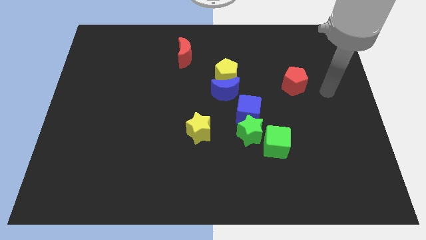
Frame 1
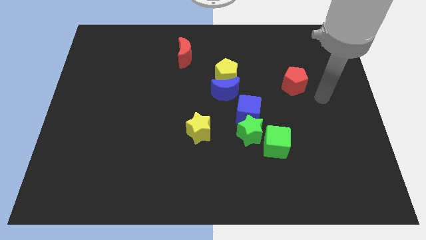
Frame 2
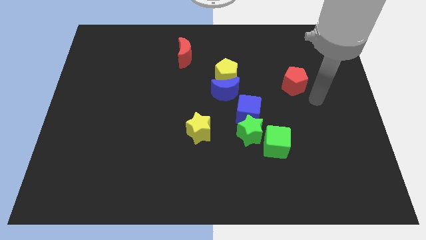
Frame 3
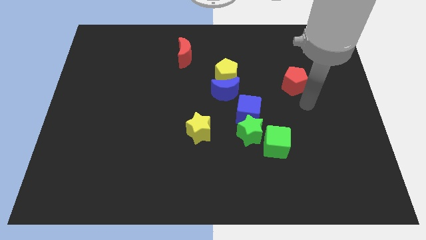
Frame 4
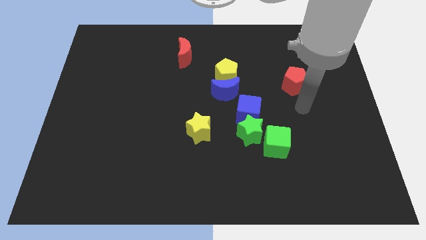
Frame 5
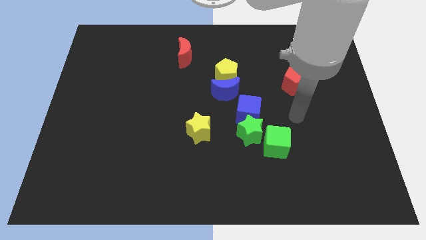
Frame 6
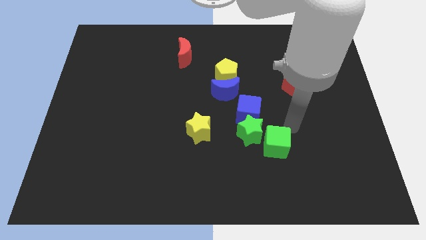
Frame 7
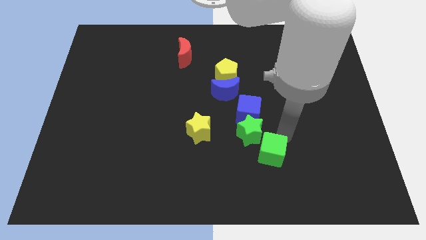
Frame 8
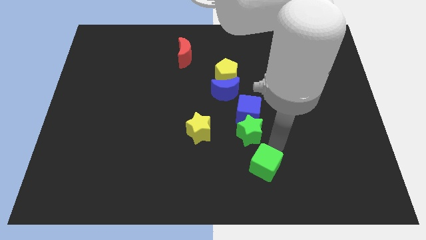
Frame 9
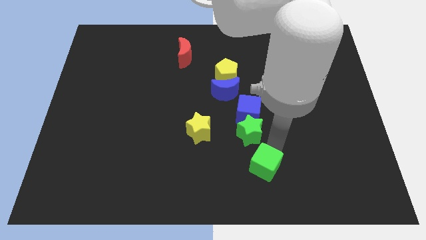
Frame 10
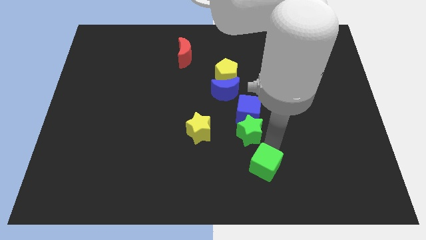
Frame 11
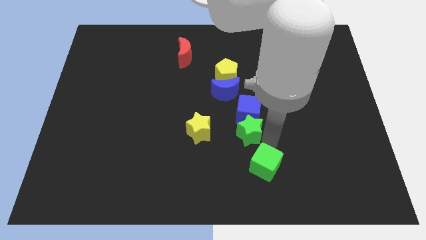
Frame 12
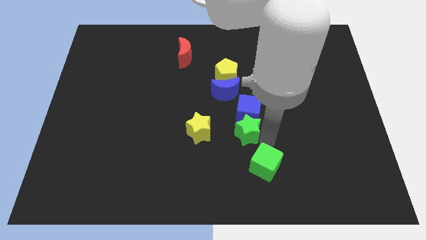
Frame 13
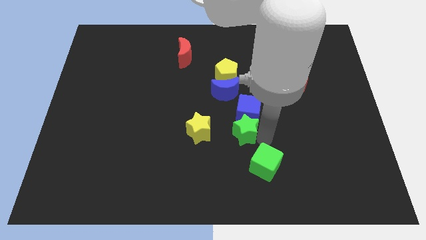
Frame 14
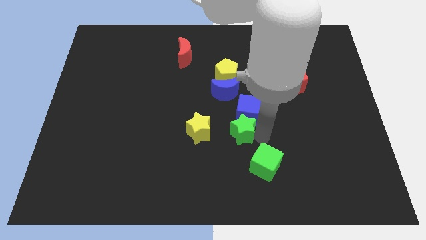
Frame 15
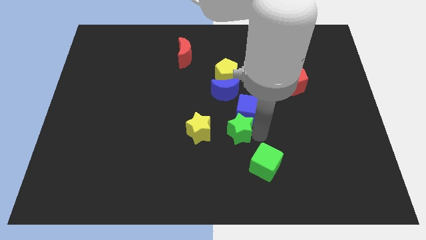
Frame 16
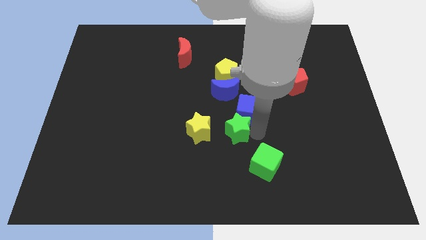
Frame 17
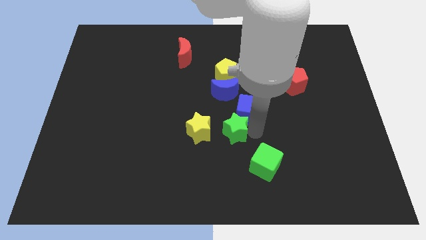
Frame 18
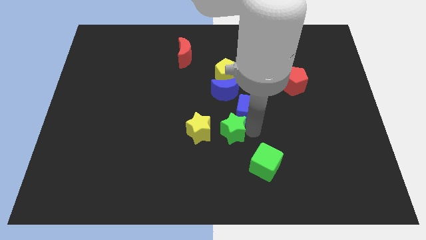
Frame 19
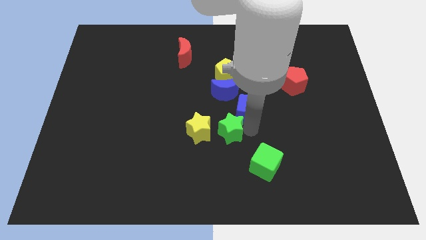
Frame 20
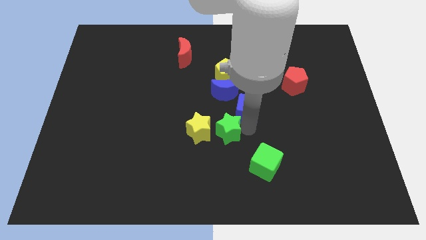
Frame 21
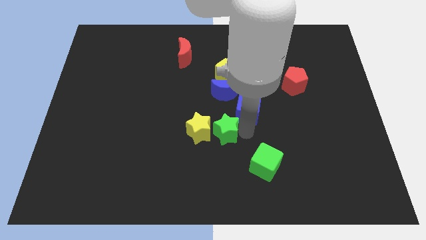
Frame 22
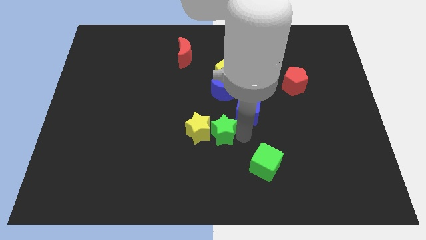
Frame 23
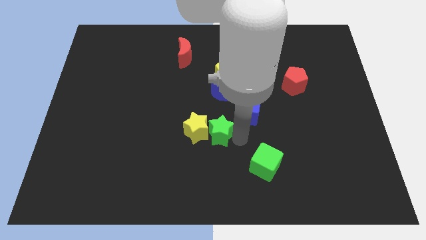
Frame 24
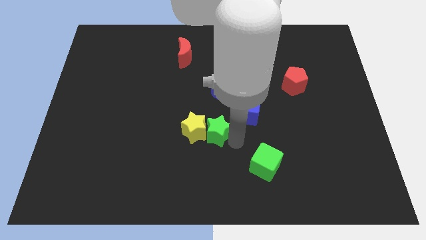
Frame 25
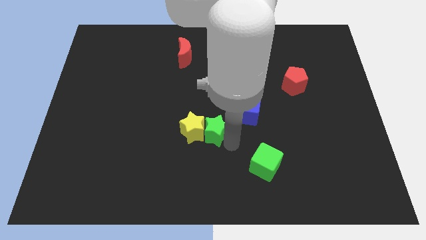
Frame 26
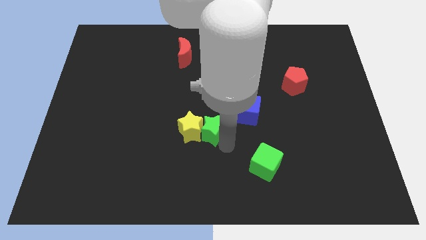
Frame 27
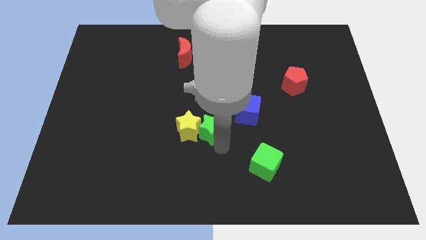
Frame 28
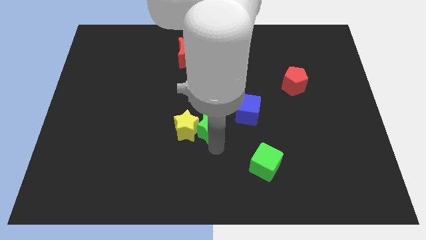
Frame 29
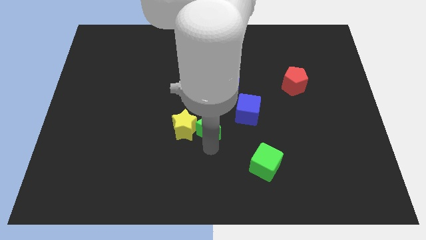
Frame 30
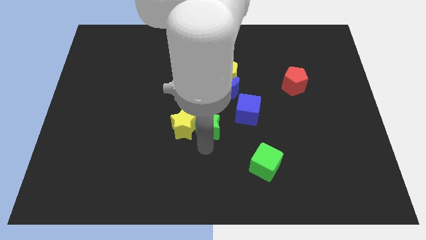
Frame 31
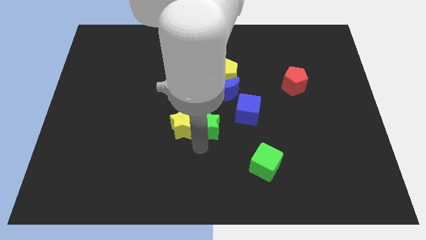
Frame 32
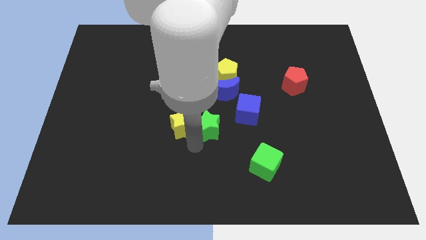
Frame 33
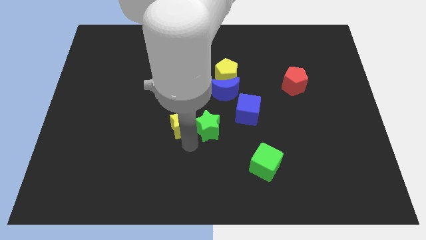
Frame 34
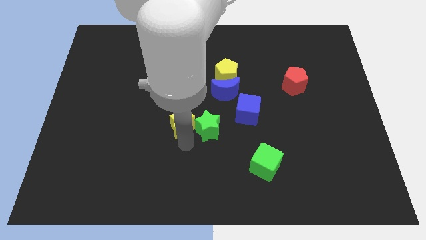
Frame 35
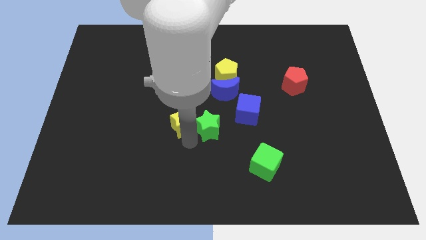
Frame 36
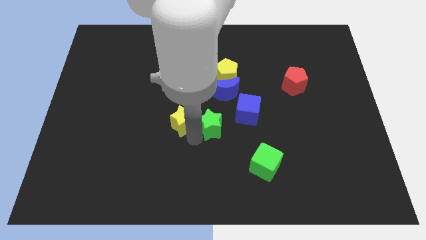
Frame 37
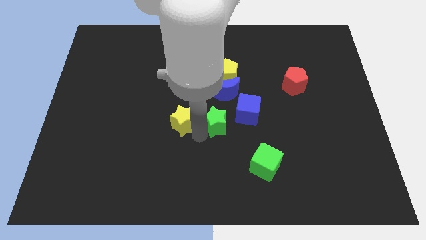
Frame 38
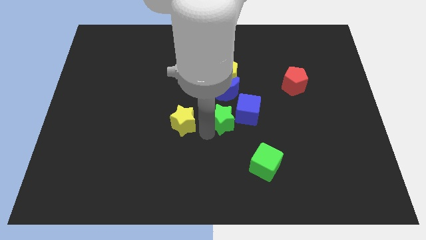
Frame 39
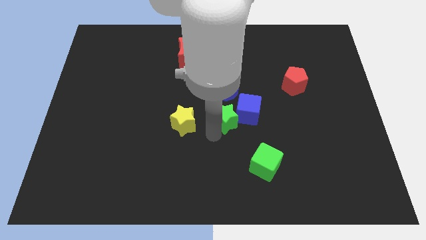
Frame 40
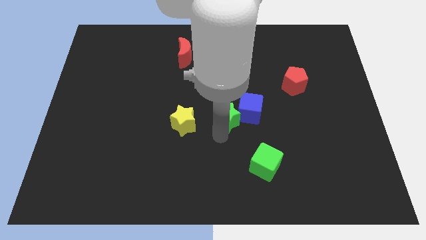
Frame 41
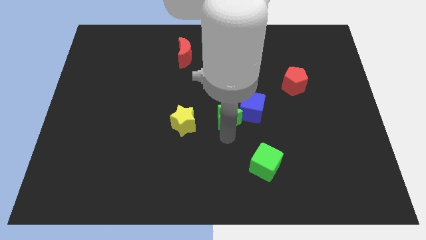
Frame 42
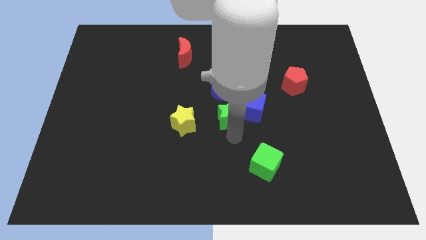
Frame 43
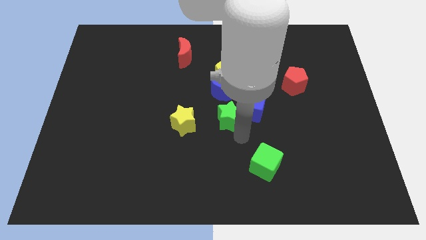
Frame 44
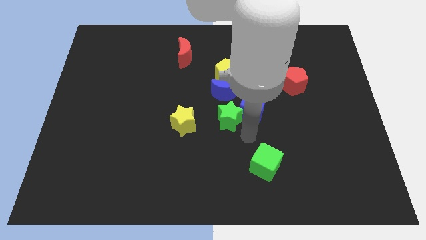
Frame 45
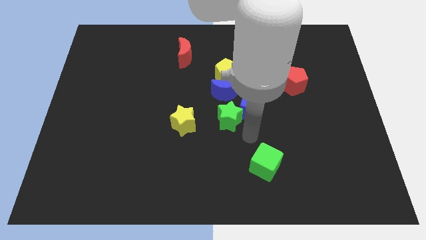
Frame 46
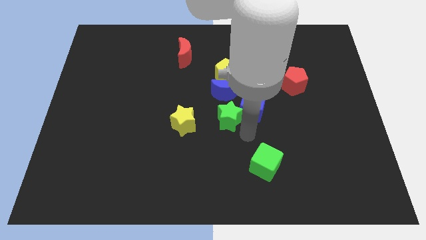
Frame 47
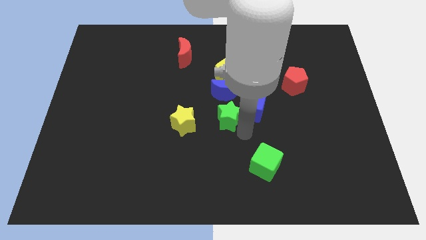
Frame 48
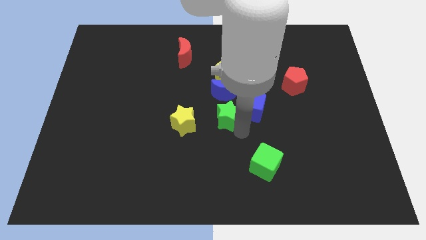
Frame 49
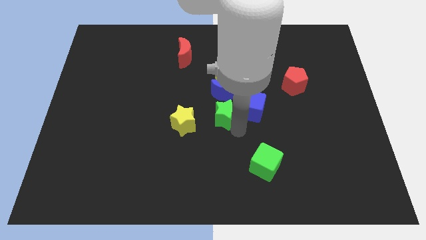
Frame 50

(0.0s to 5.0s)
slightly push the green star upwards and then to the left

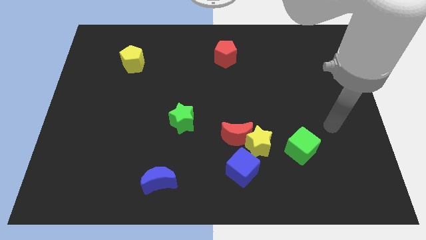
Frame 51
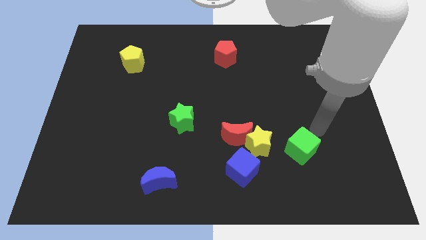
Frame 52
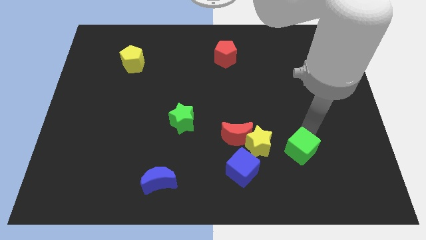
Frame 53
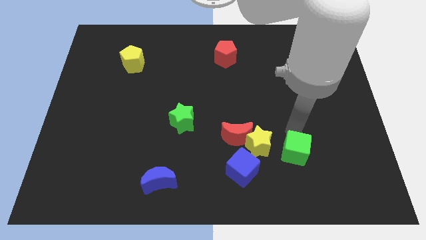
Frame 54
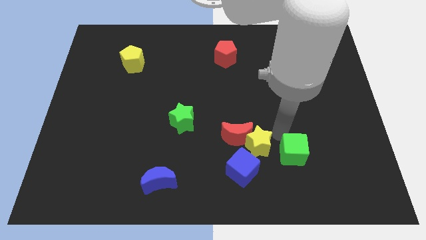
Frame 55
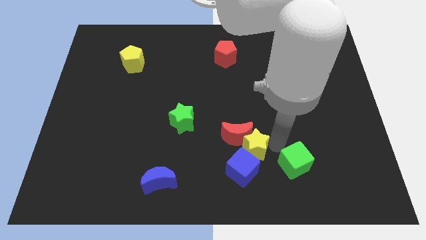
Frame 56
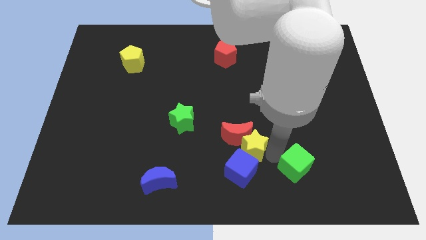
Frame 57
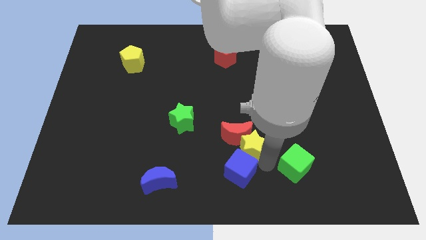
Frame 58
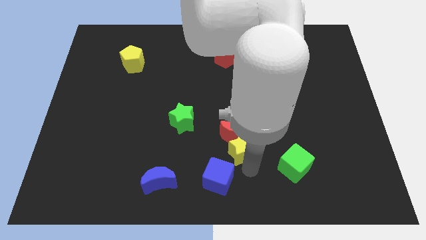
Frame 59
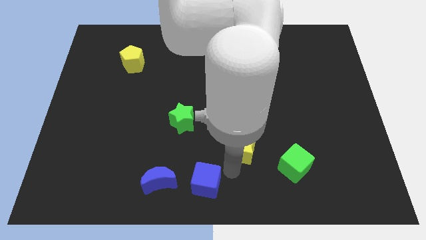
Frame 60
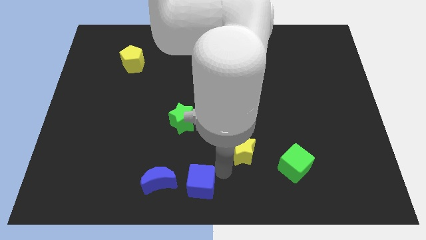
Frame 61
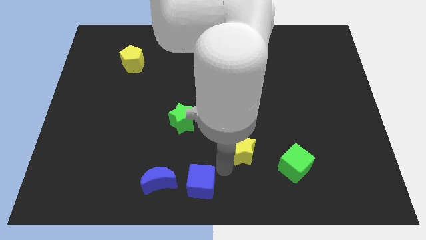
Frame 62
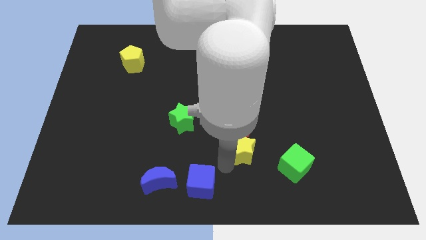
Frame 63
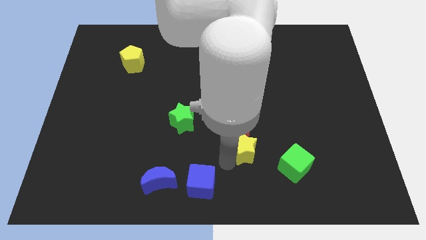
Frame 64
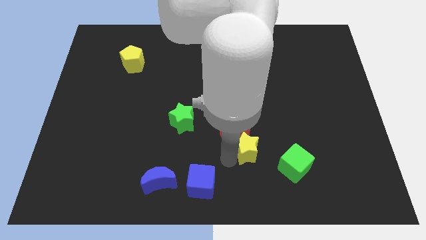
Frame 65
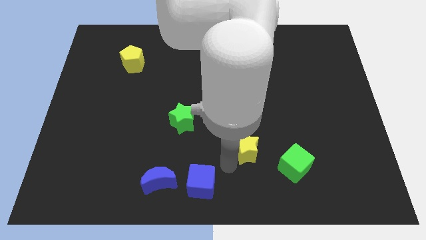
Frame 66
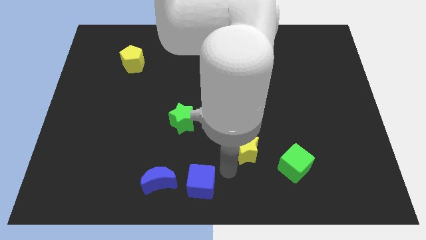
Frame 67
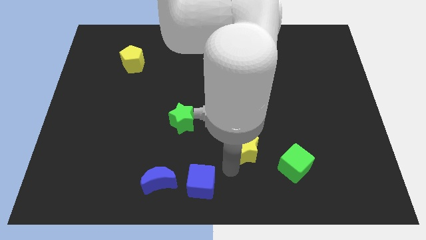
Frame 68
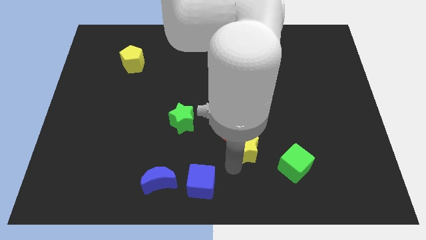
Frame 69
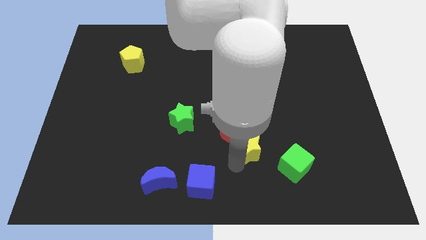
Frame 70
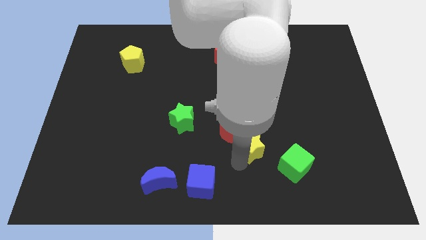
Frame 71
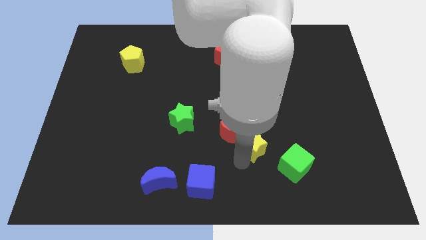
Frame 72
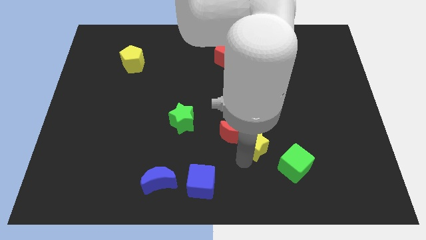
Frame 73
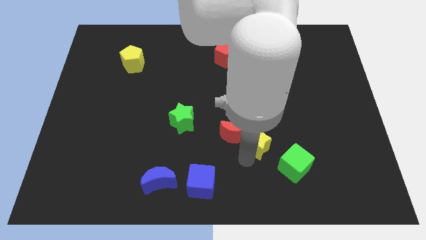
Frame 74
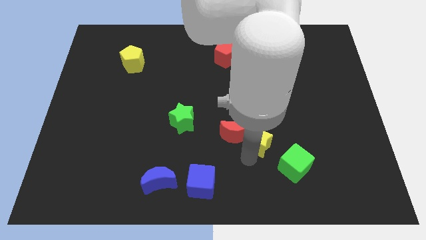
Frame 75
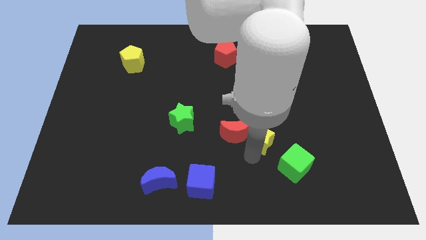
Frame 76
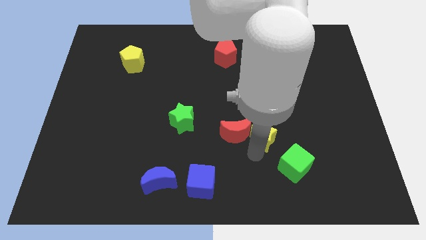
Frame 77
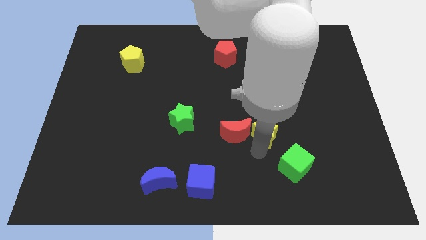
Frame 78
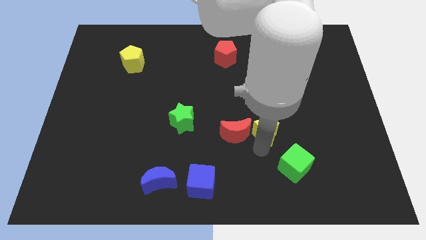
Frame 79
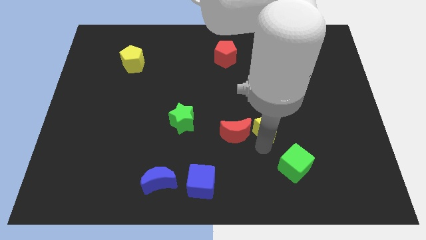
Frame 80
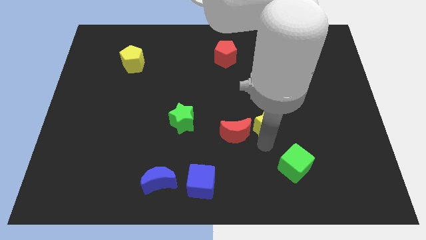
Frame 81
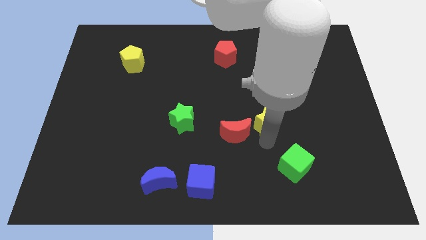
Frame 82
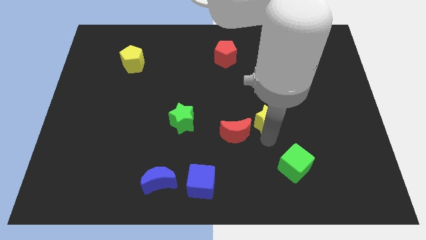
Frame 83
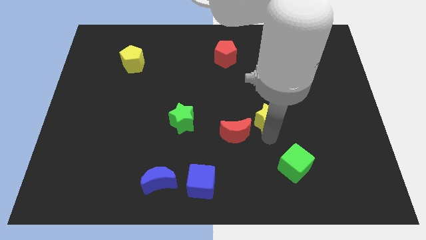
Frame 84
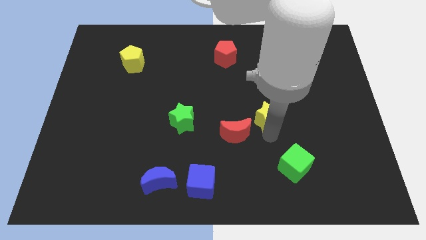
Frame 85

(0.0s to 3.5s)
push the yellow star a little bit up
